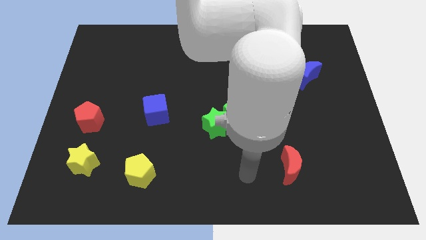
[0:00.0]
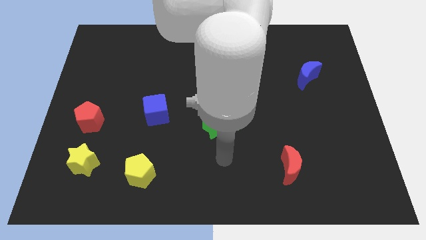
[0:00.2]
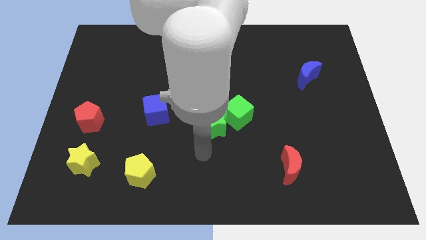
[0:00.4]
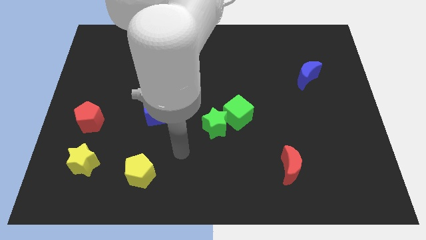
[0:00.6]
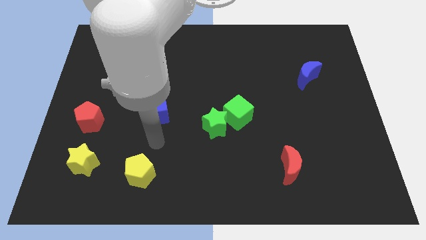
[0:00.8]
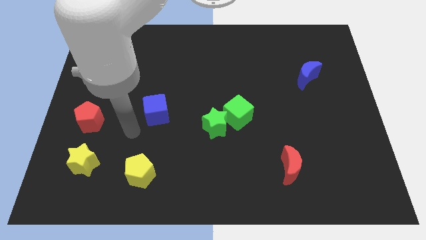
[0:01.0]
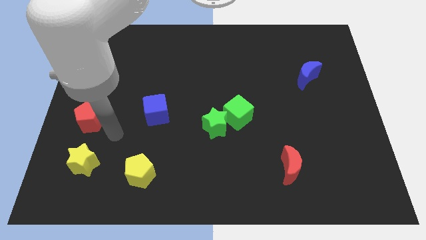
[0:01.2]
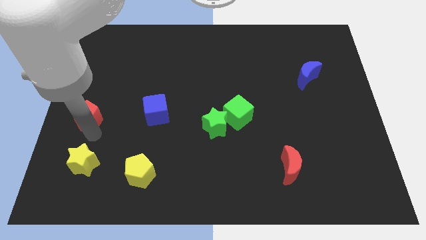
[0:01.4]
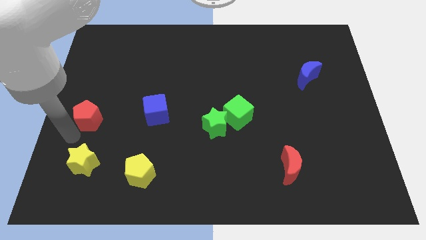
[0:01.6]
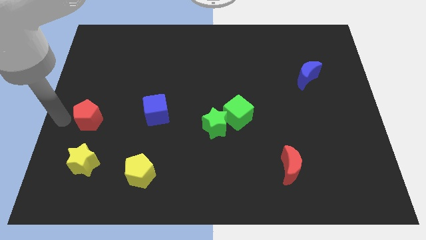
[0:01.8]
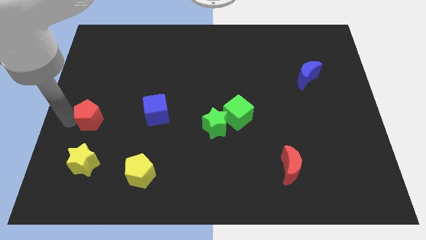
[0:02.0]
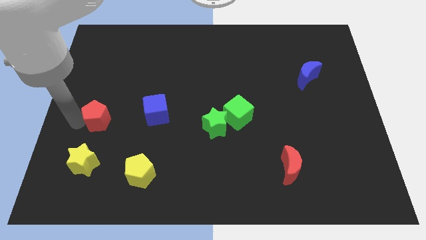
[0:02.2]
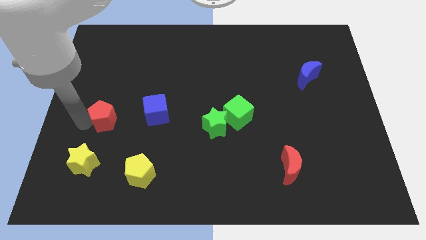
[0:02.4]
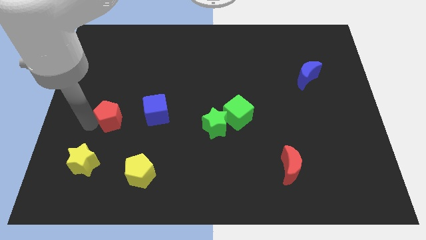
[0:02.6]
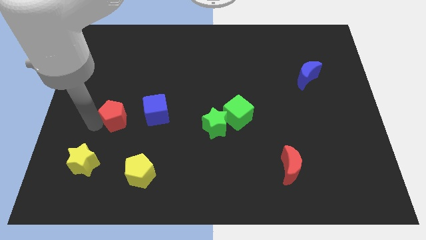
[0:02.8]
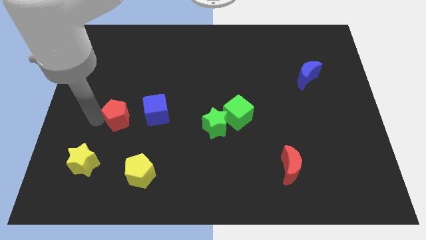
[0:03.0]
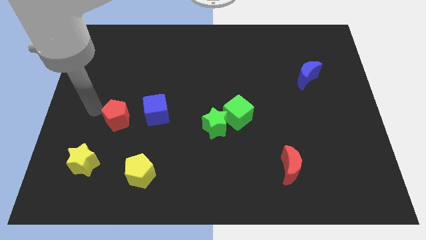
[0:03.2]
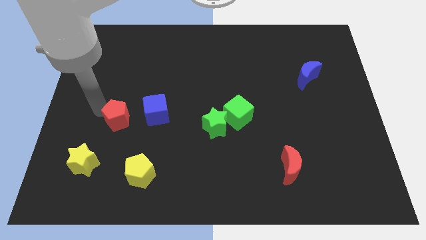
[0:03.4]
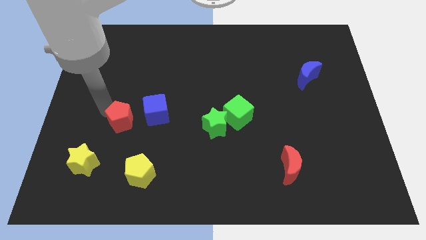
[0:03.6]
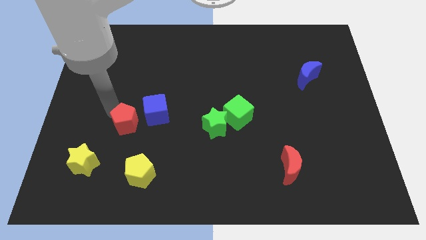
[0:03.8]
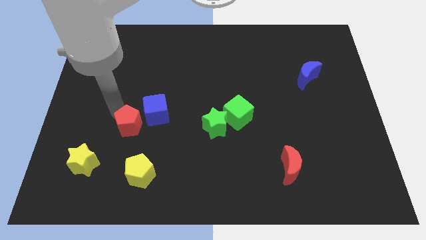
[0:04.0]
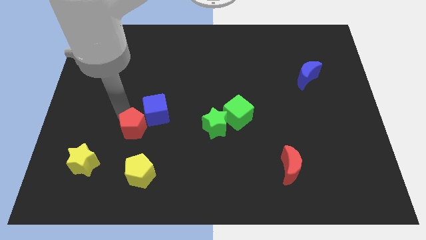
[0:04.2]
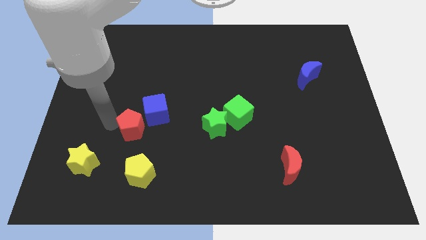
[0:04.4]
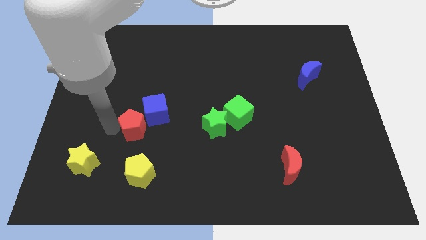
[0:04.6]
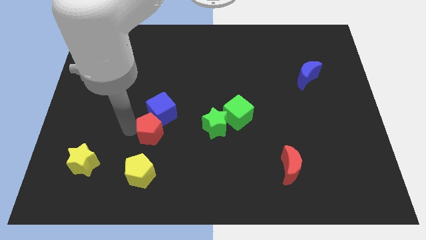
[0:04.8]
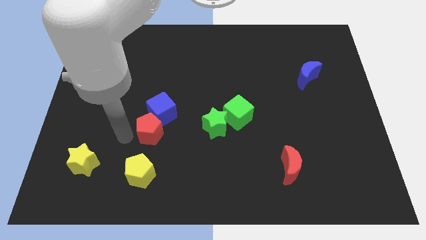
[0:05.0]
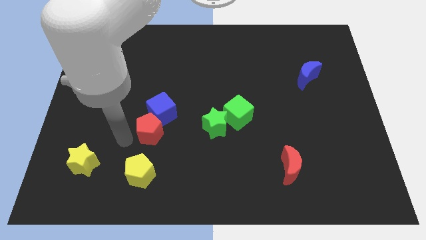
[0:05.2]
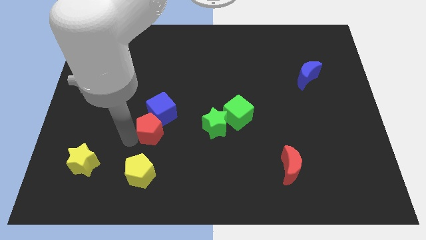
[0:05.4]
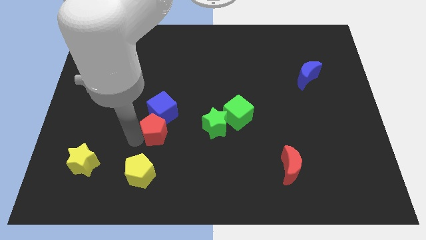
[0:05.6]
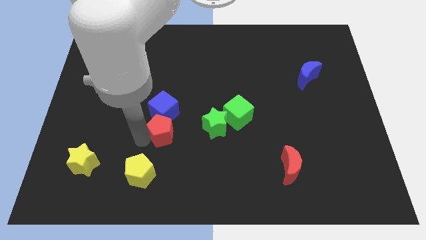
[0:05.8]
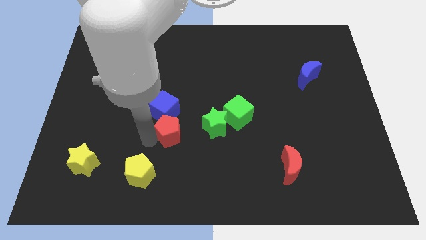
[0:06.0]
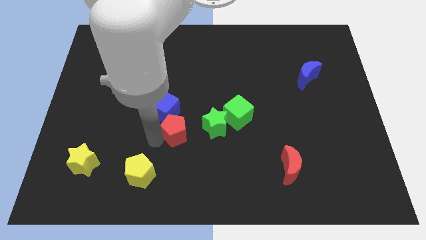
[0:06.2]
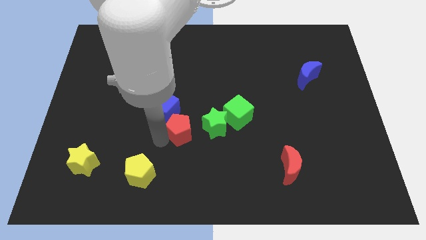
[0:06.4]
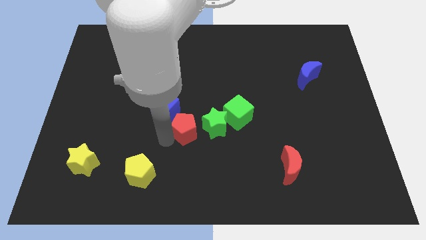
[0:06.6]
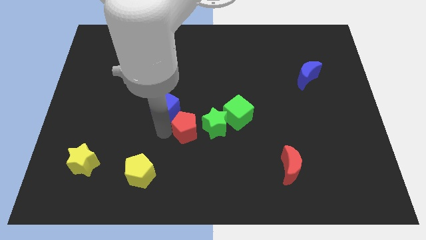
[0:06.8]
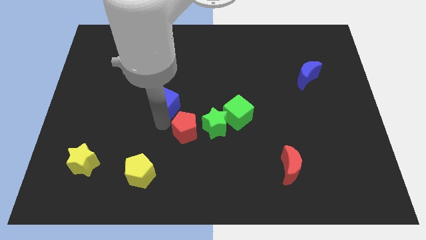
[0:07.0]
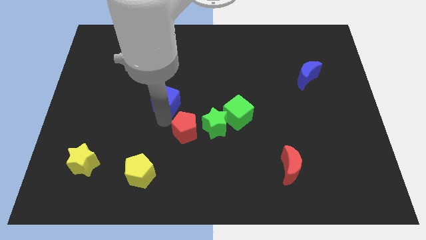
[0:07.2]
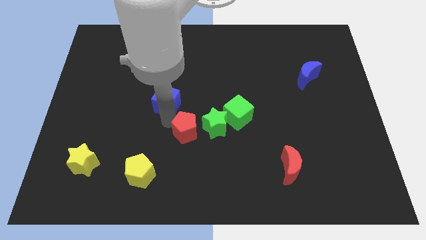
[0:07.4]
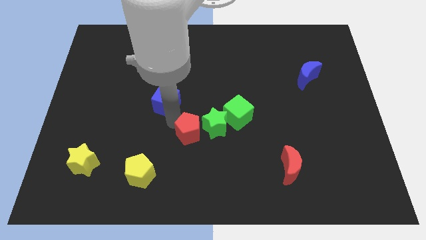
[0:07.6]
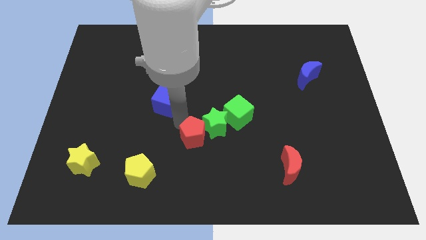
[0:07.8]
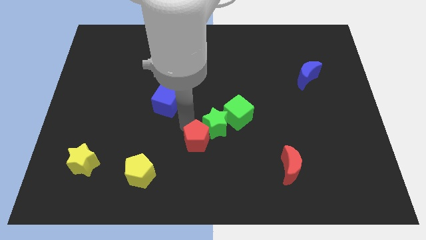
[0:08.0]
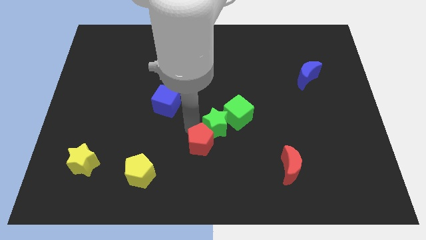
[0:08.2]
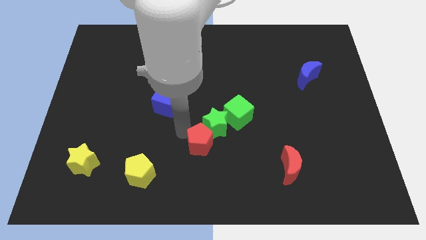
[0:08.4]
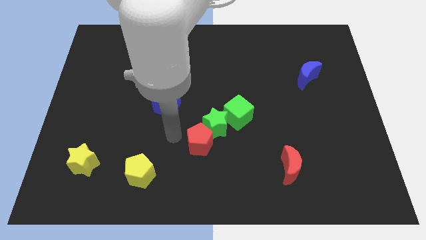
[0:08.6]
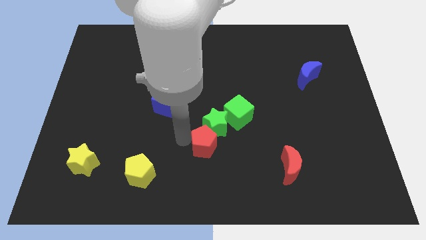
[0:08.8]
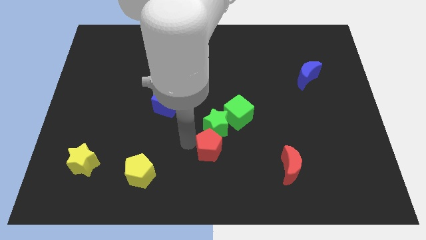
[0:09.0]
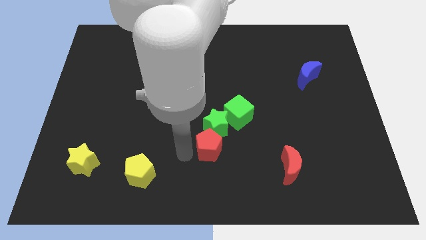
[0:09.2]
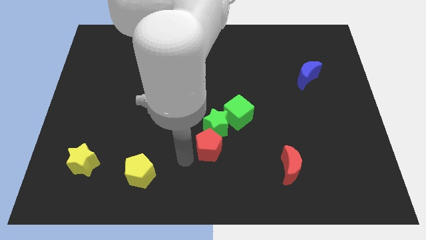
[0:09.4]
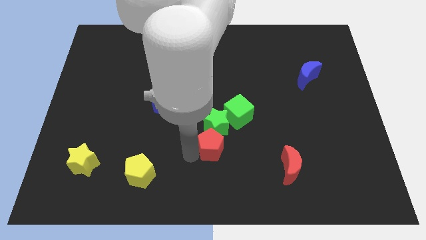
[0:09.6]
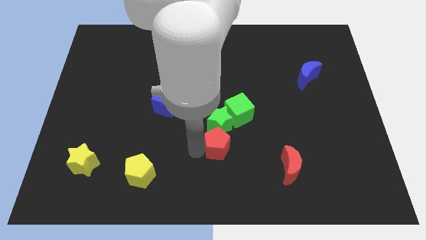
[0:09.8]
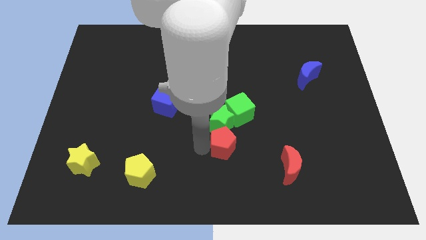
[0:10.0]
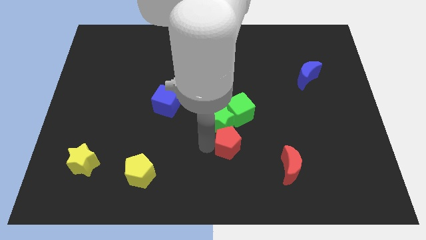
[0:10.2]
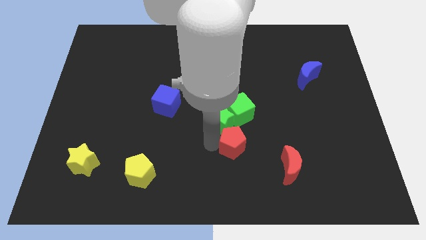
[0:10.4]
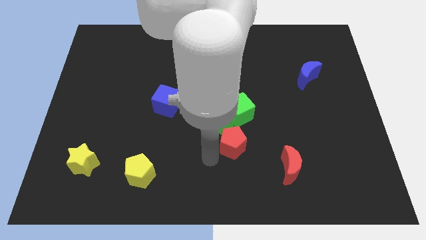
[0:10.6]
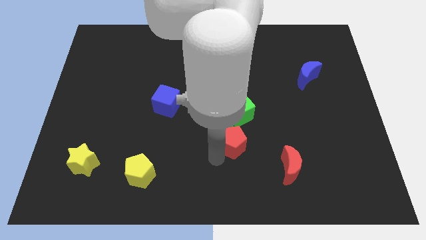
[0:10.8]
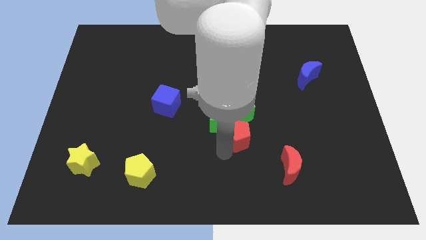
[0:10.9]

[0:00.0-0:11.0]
push the red pentagon to the right of the green star
